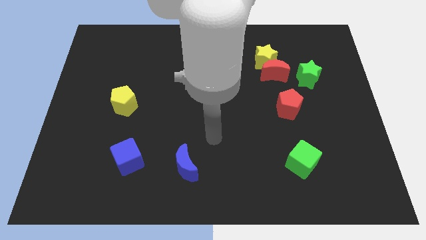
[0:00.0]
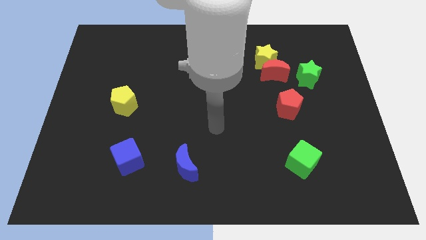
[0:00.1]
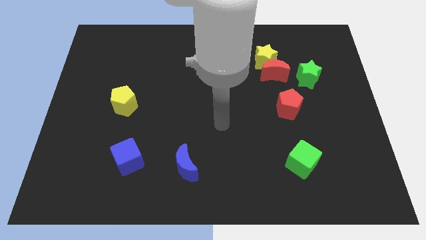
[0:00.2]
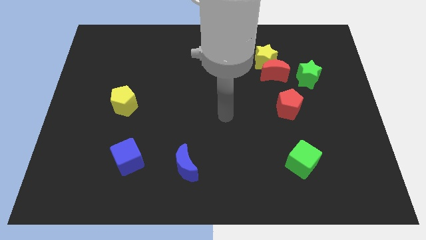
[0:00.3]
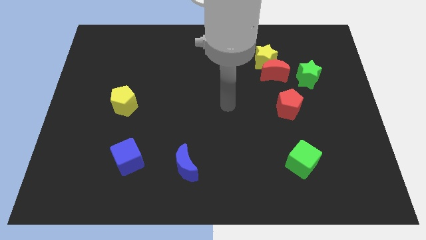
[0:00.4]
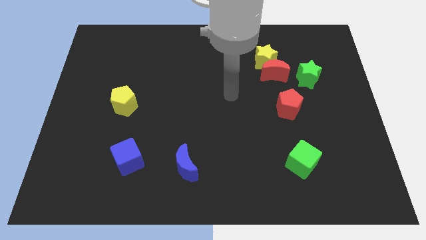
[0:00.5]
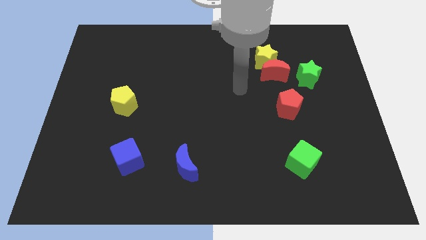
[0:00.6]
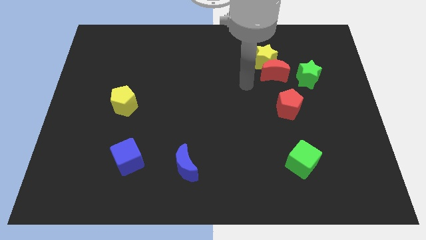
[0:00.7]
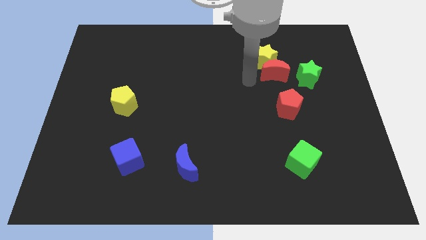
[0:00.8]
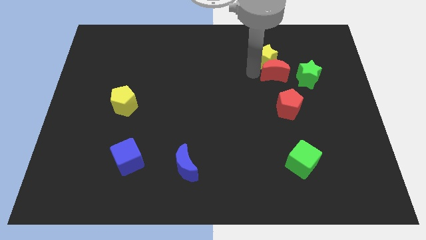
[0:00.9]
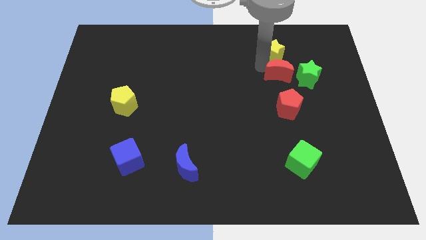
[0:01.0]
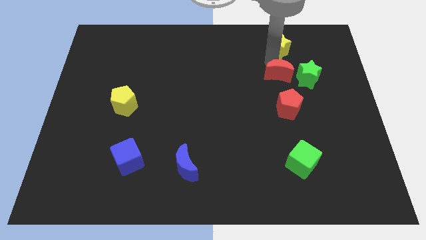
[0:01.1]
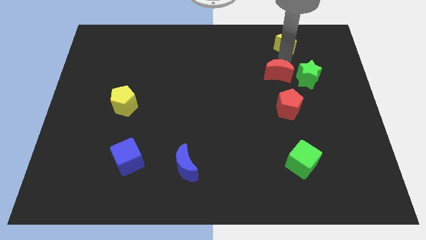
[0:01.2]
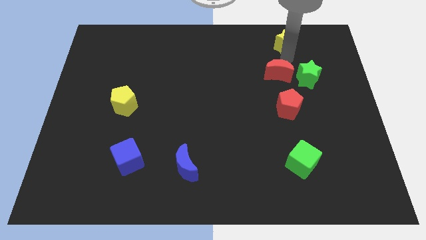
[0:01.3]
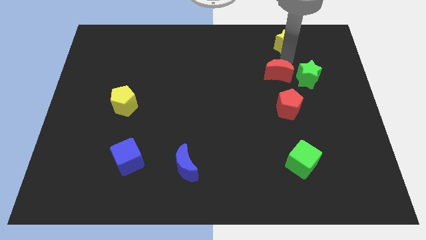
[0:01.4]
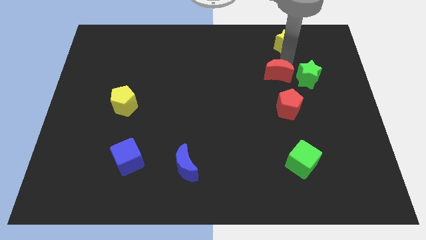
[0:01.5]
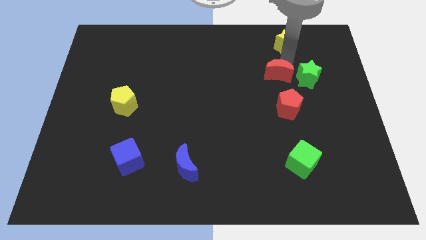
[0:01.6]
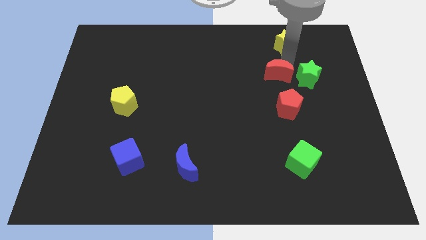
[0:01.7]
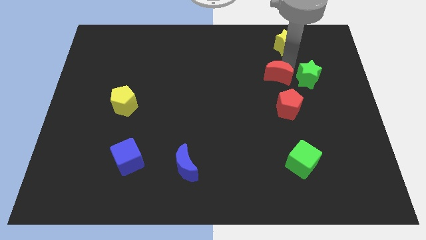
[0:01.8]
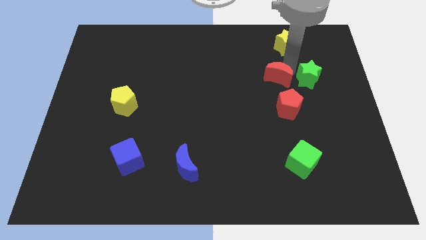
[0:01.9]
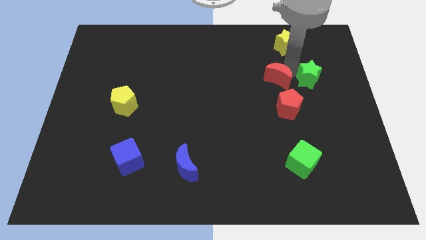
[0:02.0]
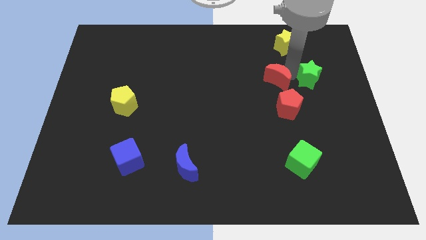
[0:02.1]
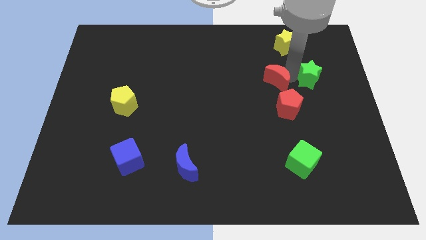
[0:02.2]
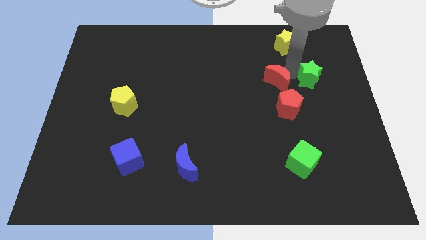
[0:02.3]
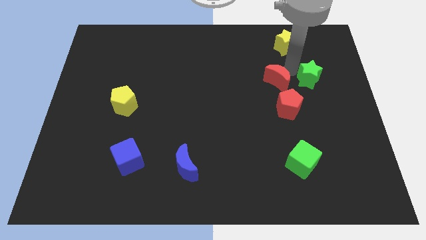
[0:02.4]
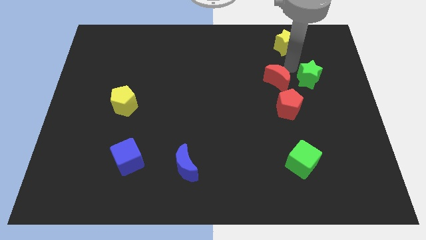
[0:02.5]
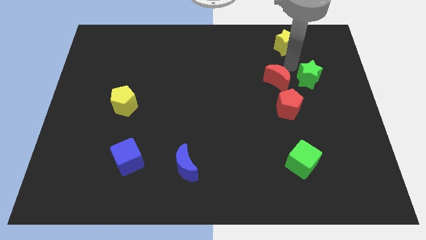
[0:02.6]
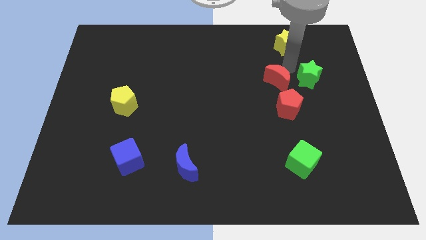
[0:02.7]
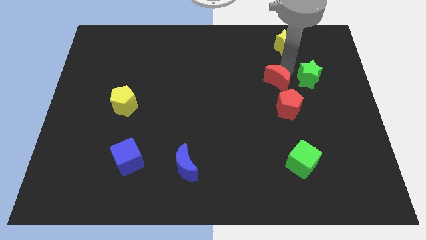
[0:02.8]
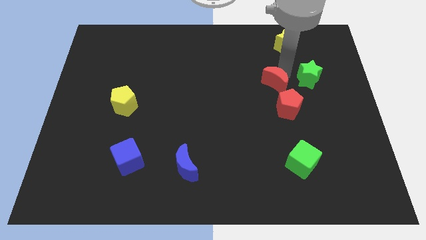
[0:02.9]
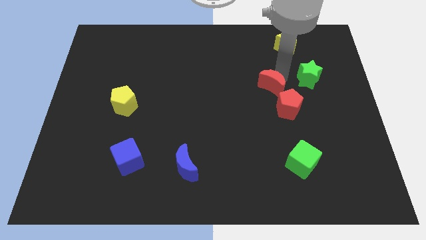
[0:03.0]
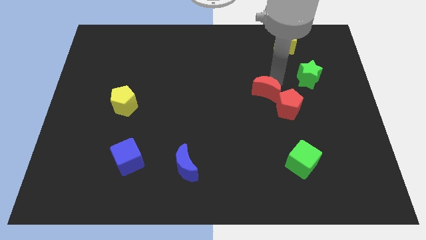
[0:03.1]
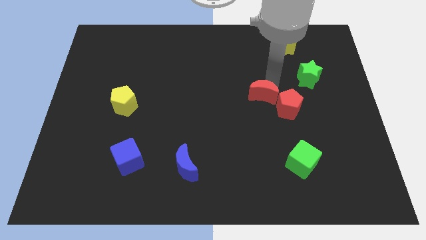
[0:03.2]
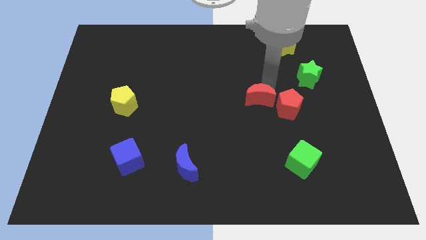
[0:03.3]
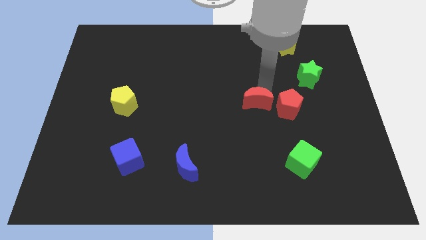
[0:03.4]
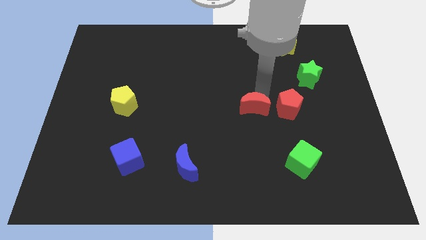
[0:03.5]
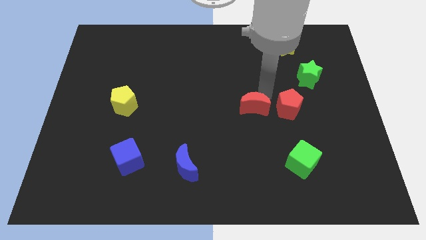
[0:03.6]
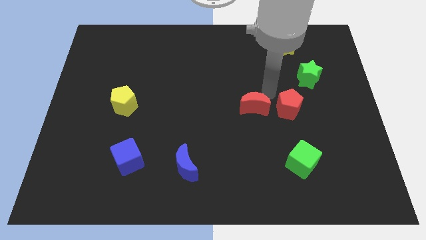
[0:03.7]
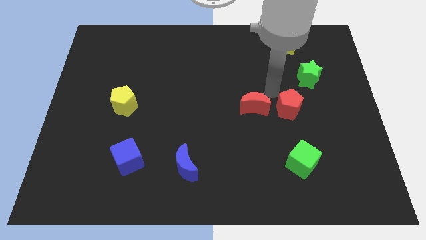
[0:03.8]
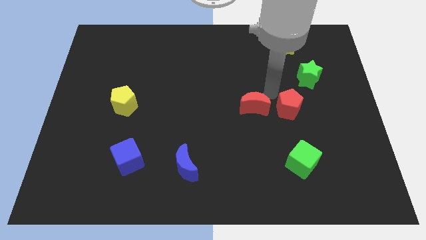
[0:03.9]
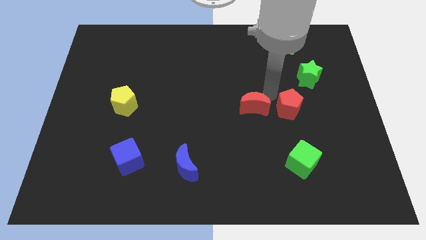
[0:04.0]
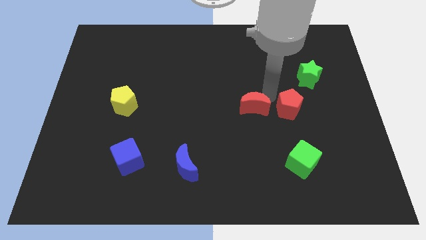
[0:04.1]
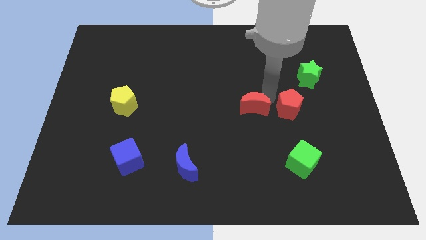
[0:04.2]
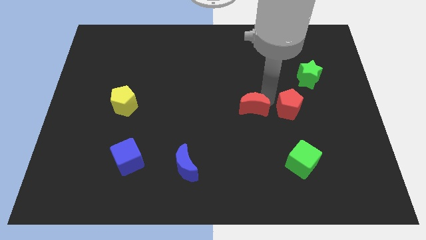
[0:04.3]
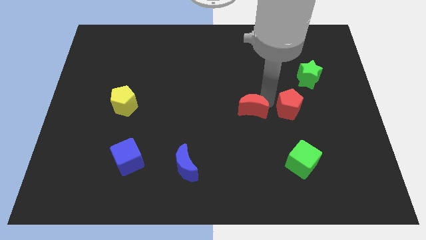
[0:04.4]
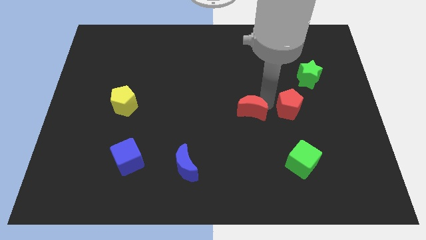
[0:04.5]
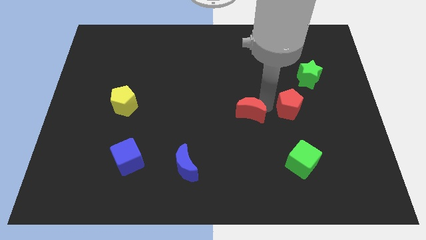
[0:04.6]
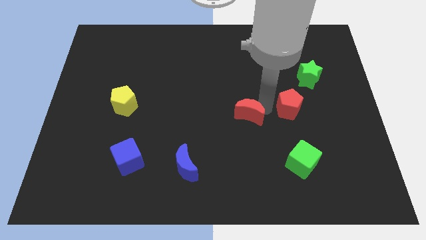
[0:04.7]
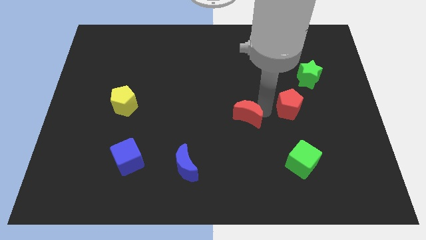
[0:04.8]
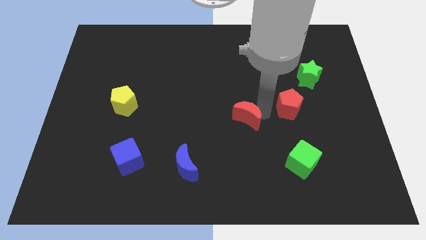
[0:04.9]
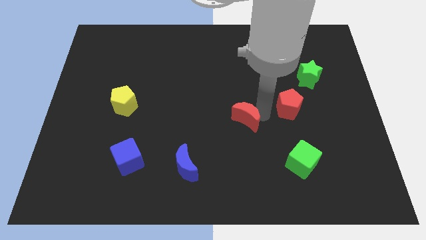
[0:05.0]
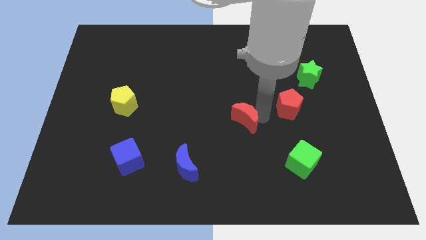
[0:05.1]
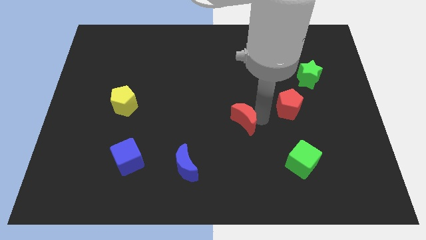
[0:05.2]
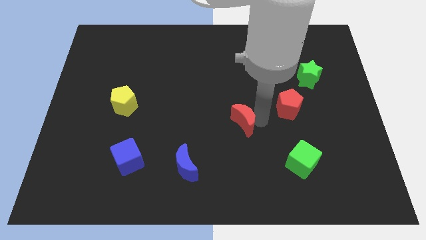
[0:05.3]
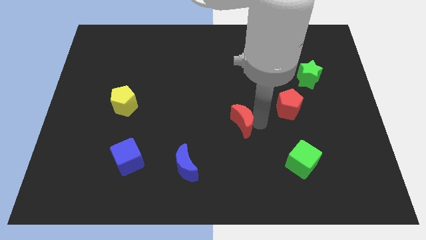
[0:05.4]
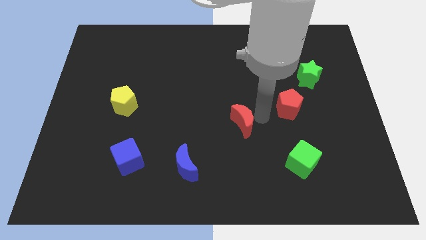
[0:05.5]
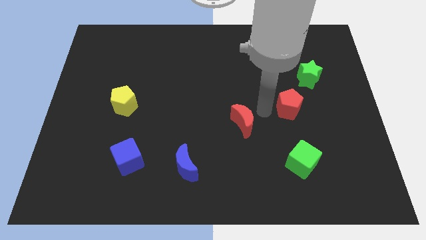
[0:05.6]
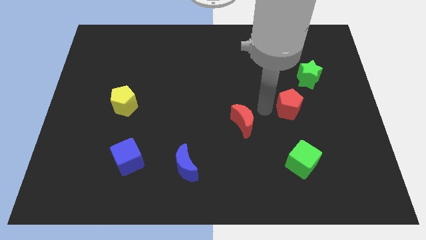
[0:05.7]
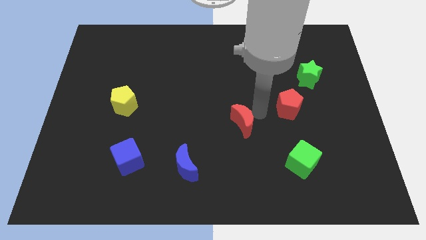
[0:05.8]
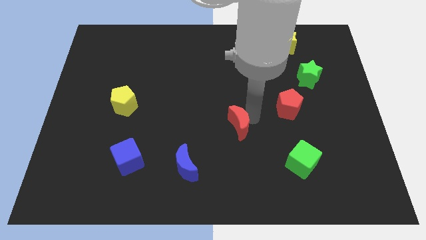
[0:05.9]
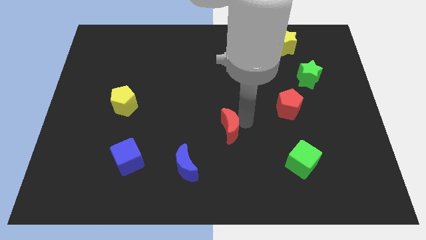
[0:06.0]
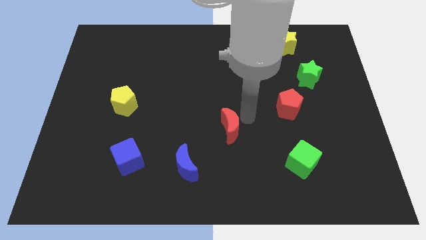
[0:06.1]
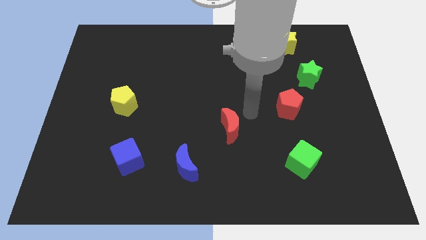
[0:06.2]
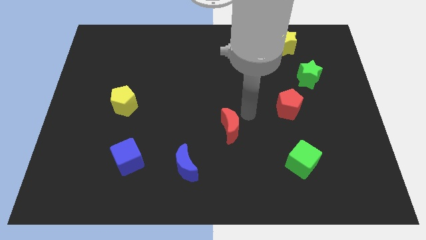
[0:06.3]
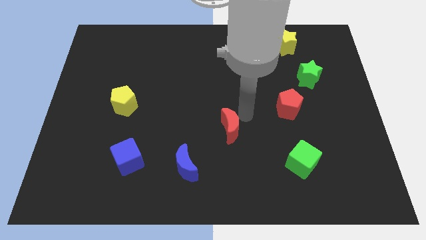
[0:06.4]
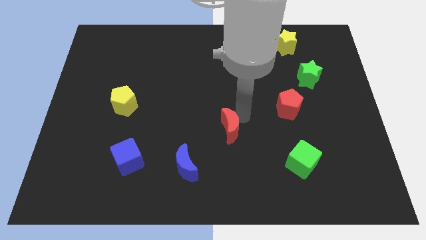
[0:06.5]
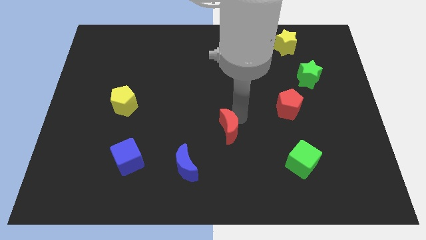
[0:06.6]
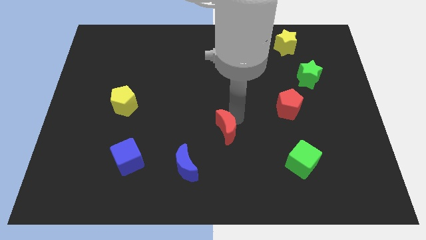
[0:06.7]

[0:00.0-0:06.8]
move the red moon diagonally up and to the right of the blue moon
